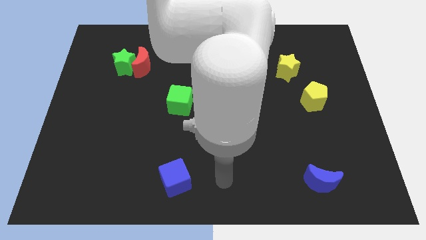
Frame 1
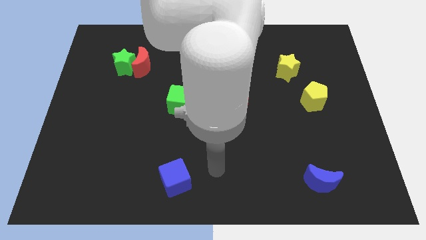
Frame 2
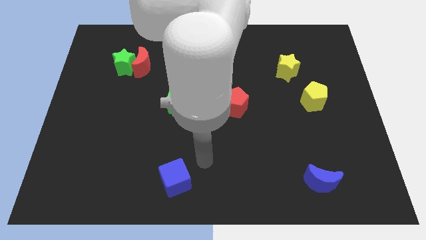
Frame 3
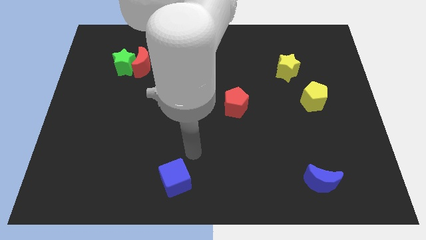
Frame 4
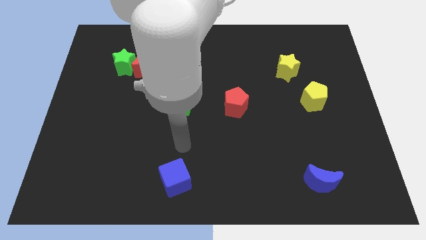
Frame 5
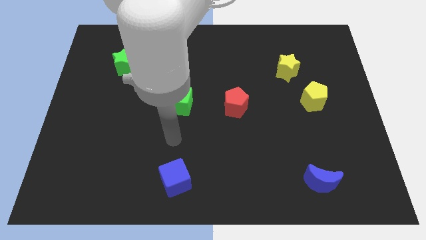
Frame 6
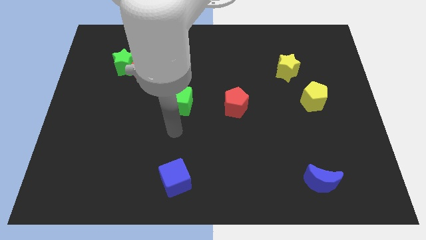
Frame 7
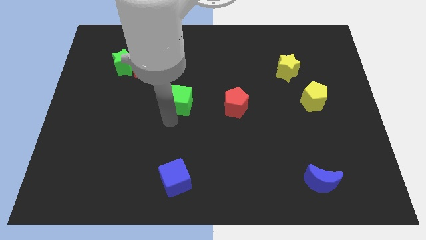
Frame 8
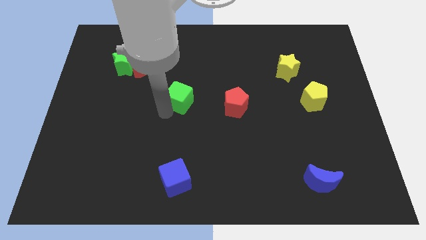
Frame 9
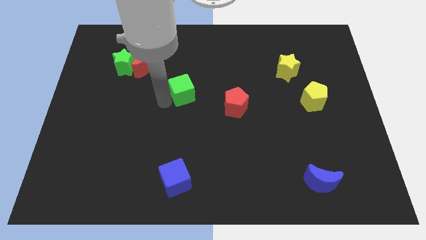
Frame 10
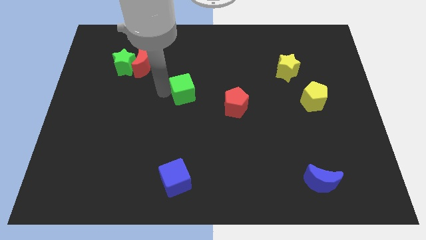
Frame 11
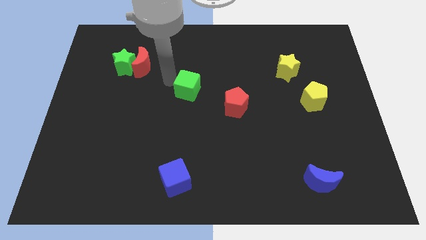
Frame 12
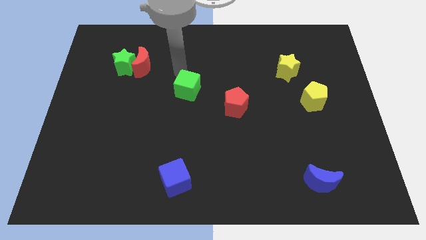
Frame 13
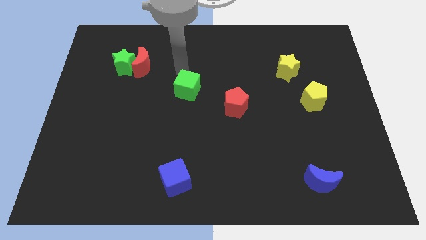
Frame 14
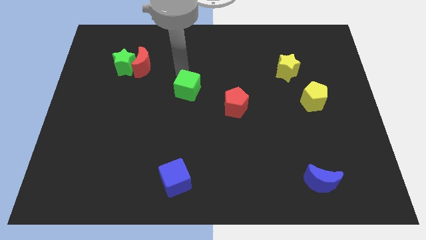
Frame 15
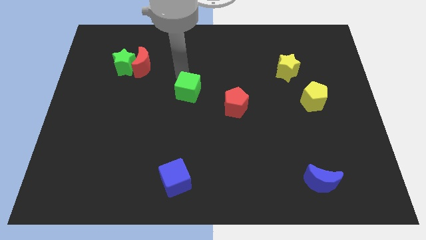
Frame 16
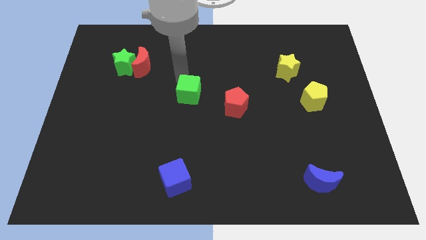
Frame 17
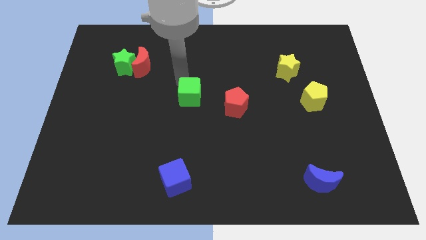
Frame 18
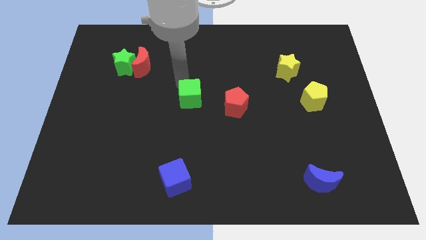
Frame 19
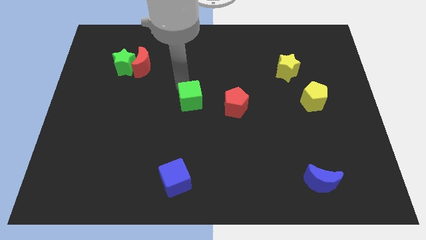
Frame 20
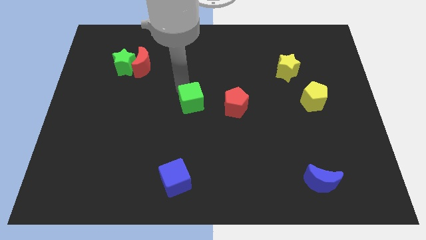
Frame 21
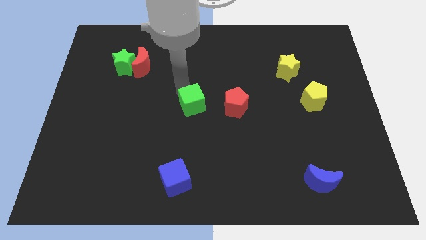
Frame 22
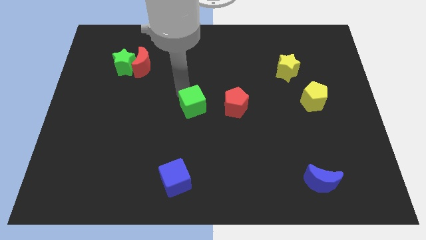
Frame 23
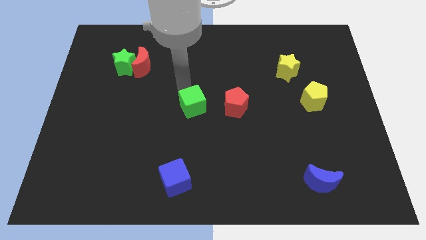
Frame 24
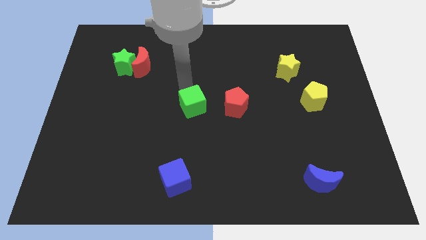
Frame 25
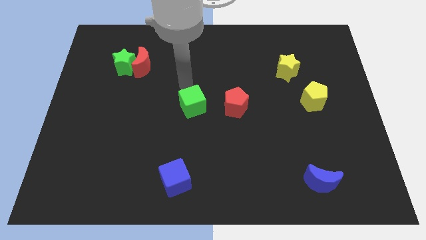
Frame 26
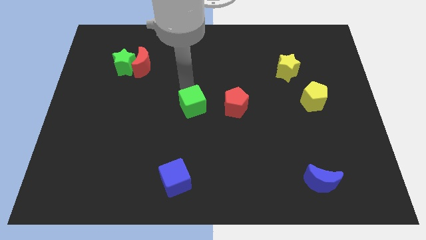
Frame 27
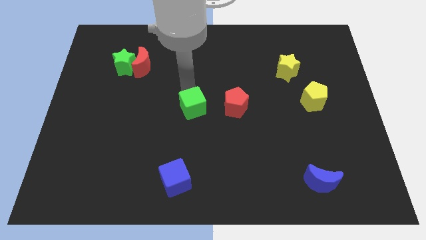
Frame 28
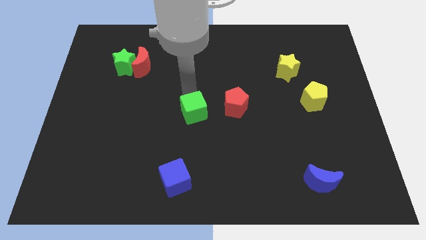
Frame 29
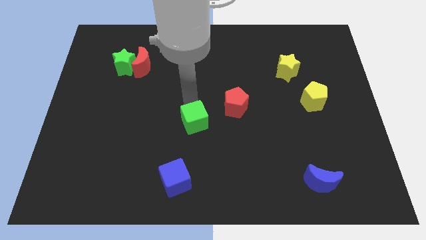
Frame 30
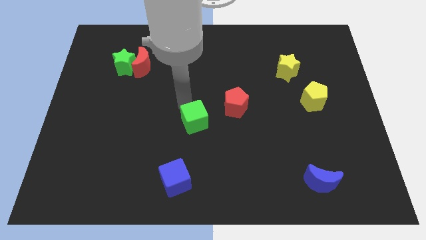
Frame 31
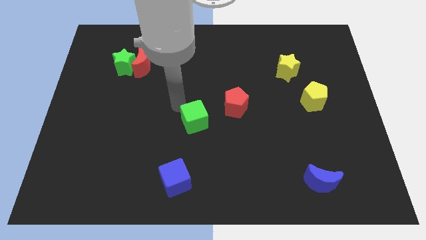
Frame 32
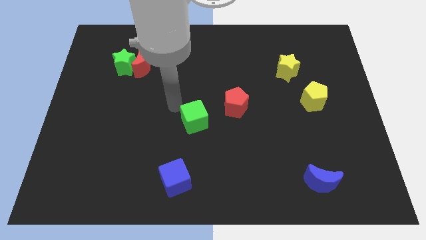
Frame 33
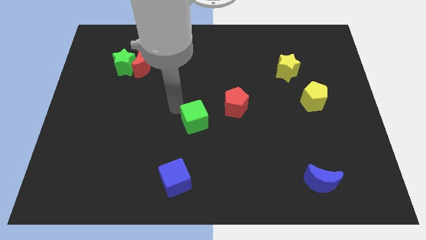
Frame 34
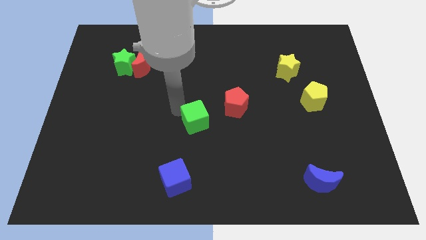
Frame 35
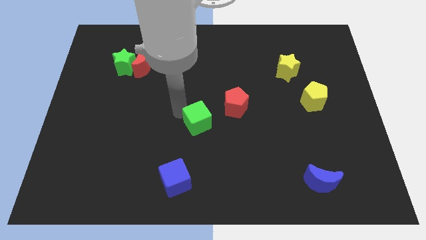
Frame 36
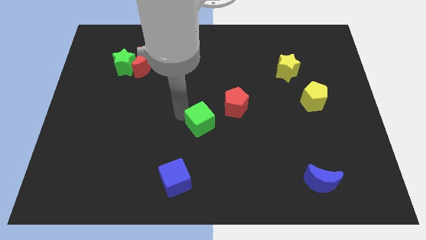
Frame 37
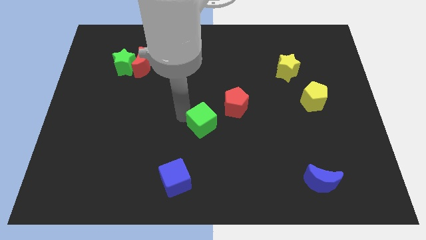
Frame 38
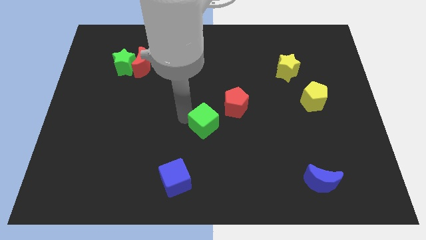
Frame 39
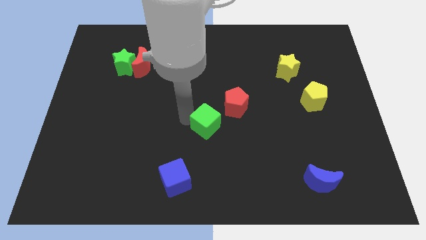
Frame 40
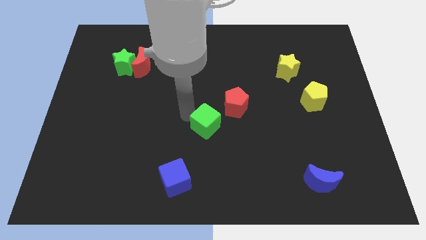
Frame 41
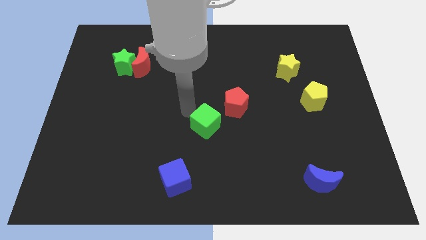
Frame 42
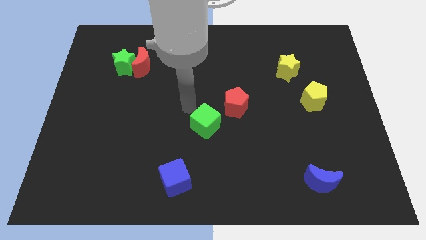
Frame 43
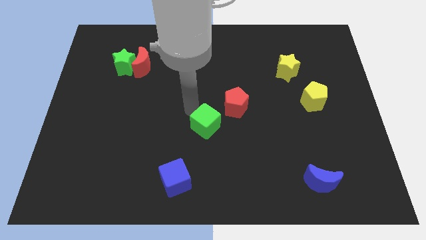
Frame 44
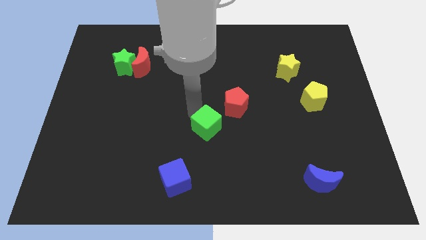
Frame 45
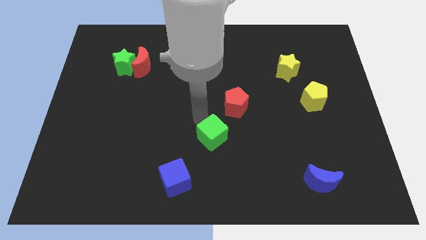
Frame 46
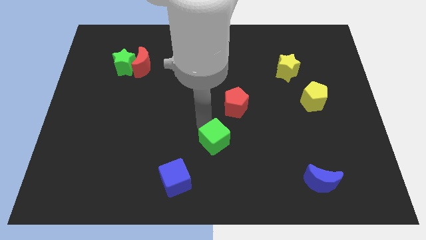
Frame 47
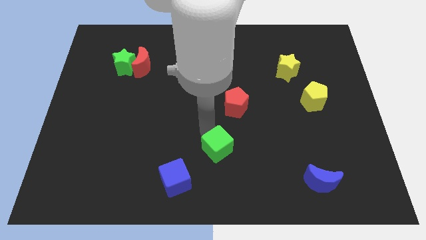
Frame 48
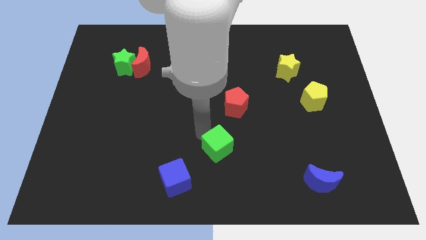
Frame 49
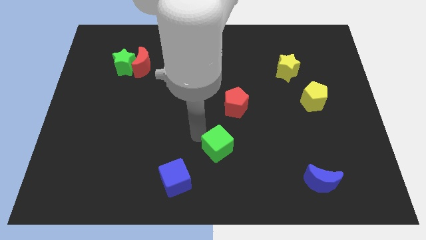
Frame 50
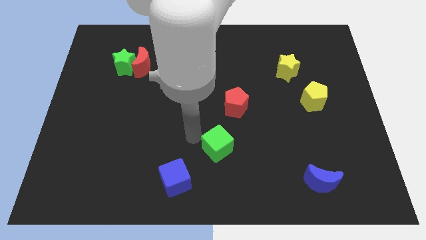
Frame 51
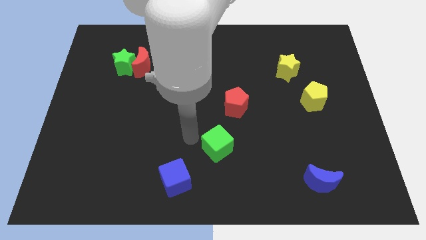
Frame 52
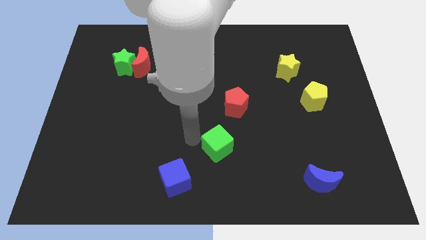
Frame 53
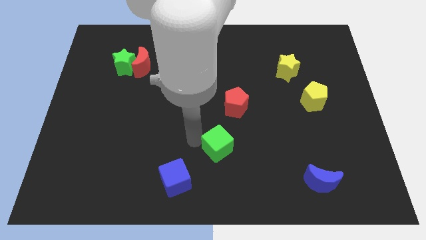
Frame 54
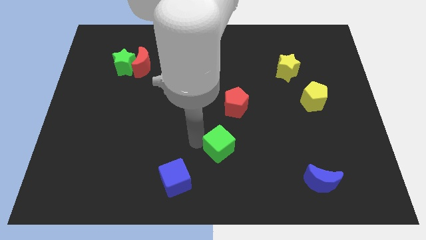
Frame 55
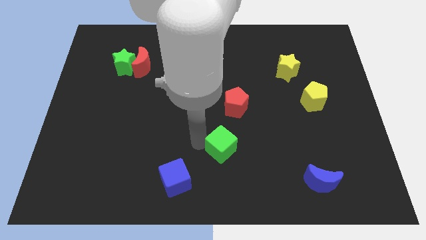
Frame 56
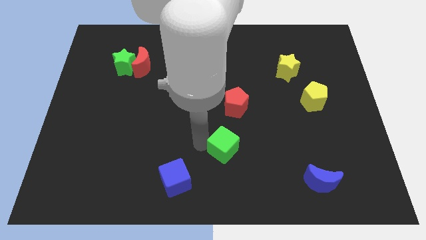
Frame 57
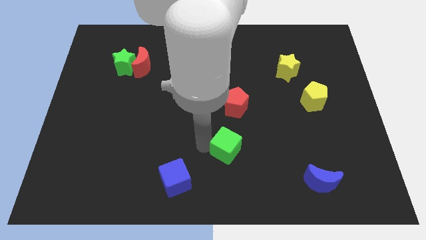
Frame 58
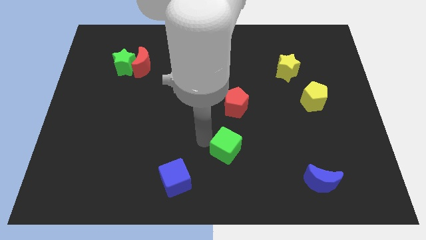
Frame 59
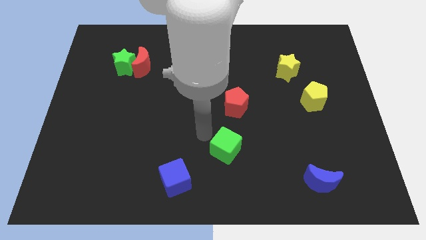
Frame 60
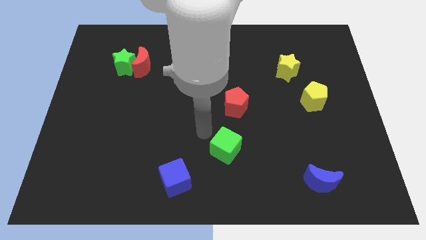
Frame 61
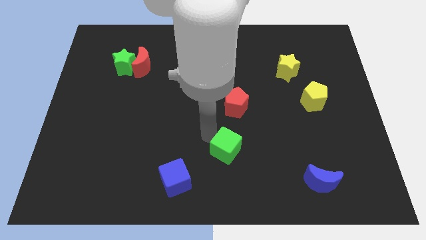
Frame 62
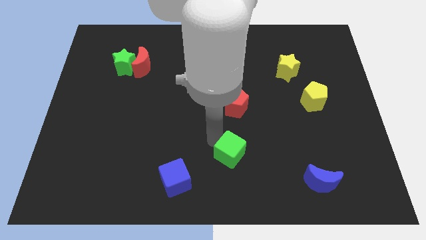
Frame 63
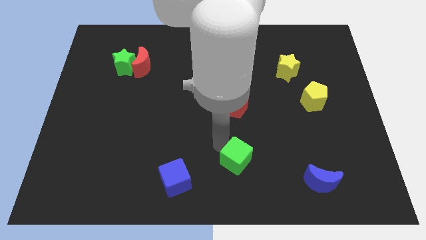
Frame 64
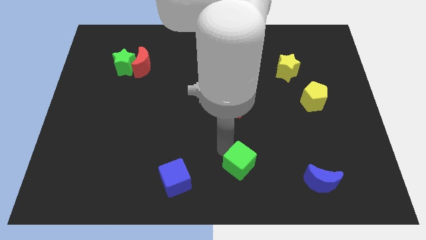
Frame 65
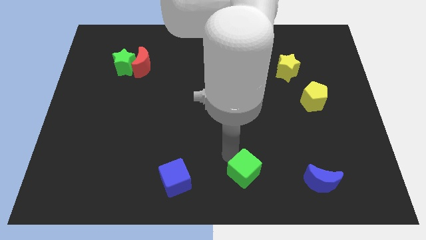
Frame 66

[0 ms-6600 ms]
slide the green cube to the left of the blue moon

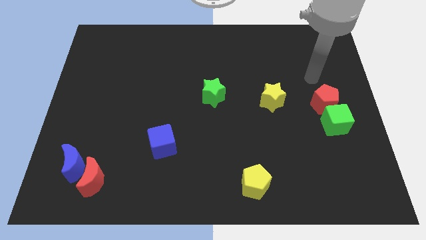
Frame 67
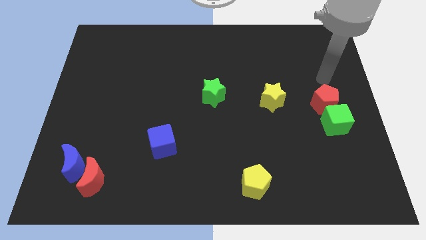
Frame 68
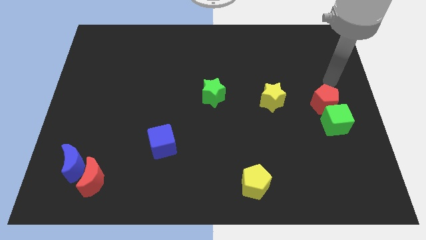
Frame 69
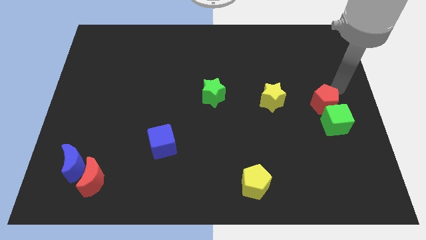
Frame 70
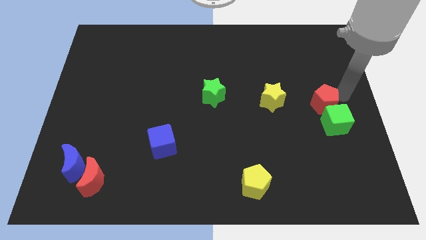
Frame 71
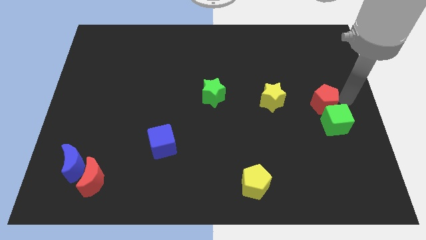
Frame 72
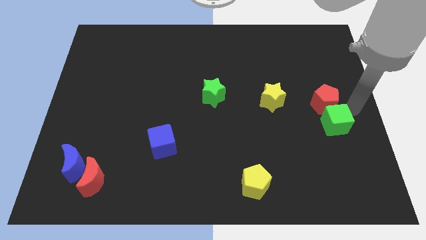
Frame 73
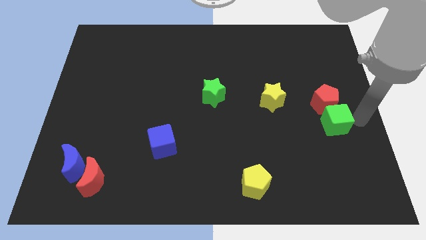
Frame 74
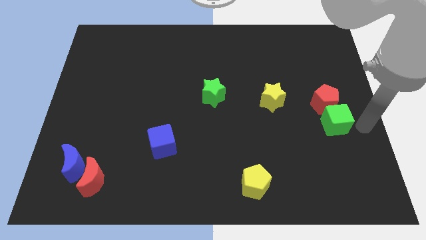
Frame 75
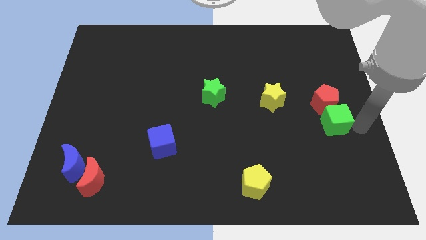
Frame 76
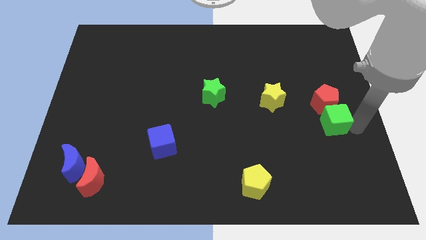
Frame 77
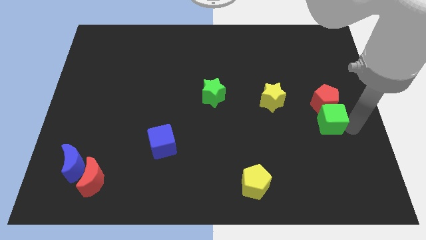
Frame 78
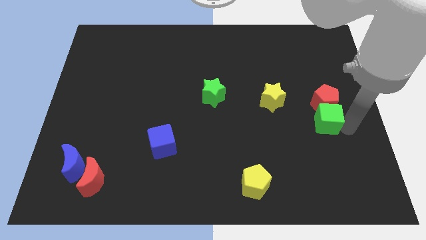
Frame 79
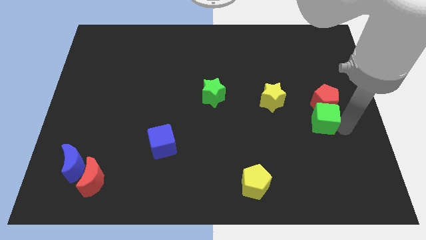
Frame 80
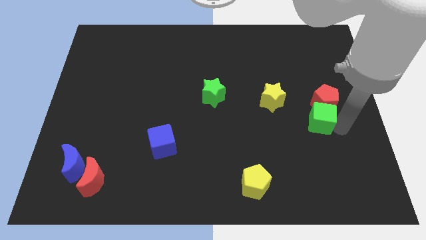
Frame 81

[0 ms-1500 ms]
put the green cube diagonally down and to the right of the yellow star
